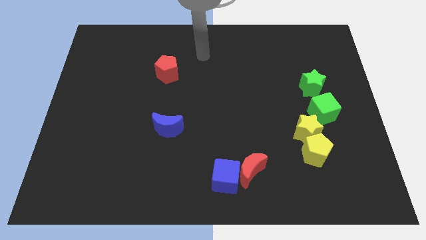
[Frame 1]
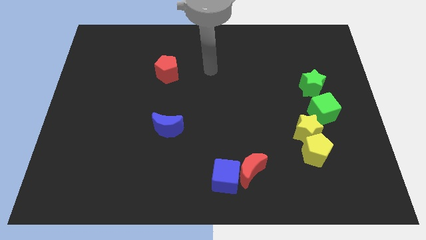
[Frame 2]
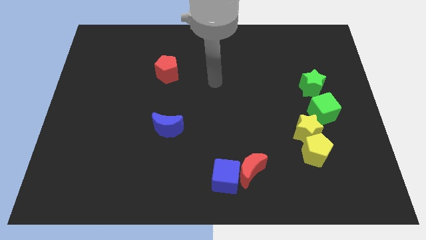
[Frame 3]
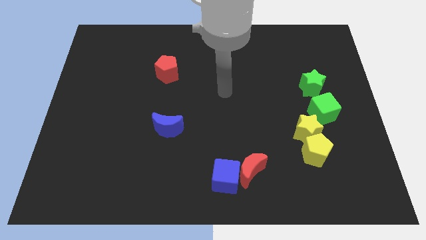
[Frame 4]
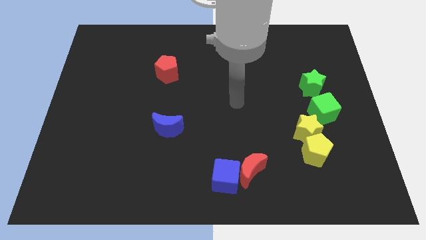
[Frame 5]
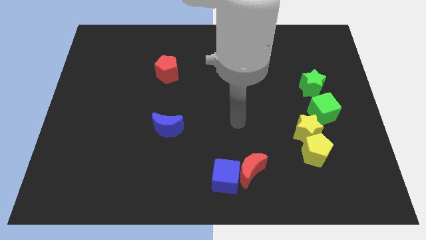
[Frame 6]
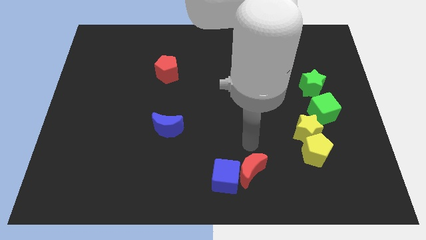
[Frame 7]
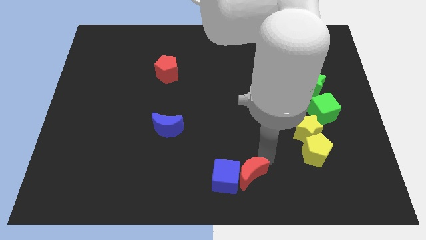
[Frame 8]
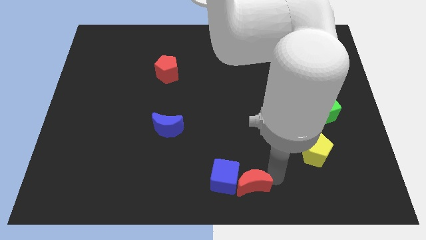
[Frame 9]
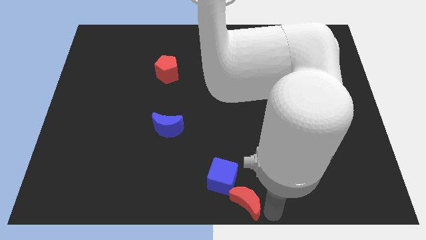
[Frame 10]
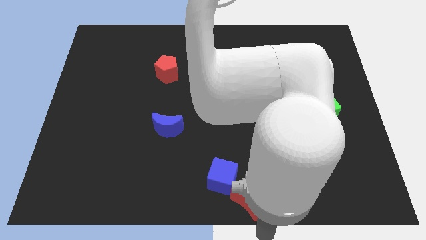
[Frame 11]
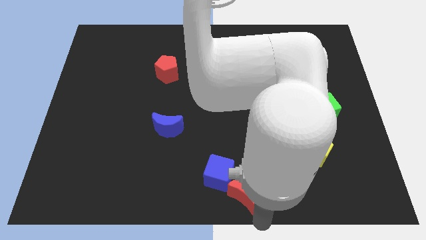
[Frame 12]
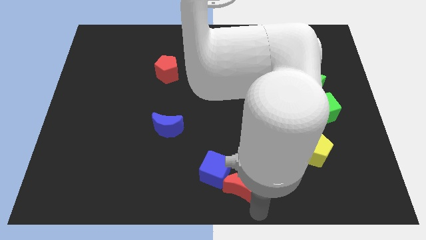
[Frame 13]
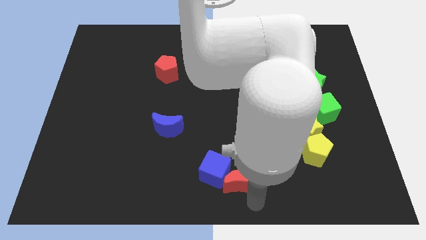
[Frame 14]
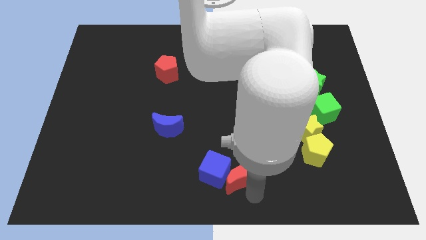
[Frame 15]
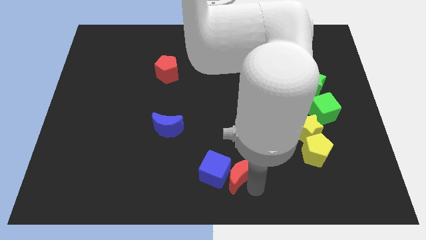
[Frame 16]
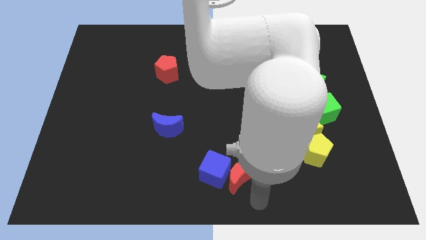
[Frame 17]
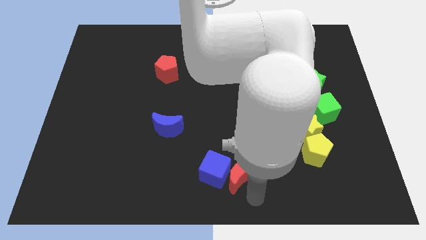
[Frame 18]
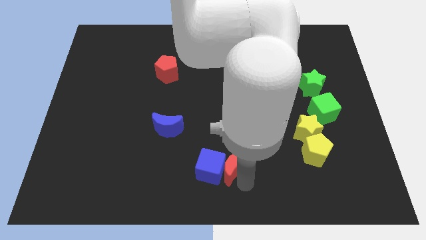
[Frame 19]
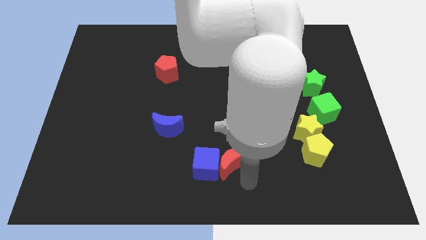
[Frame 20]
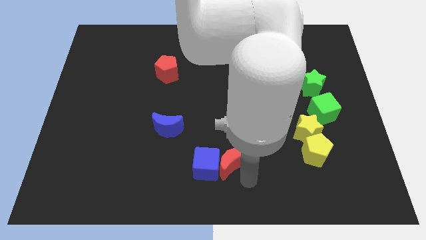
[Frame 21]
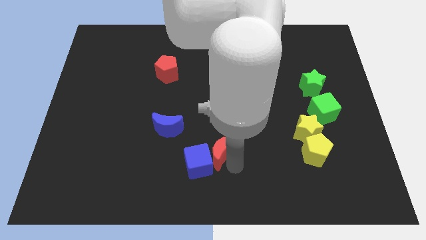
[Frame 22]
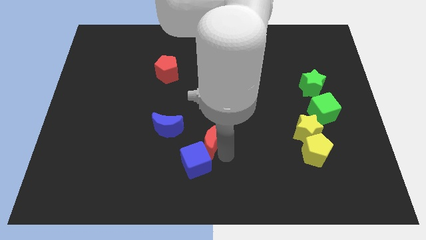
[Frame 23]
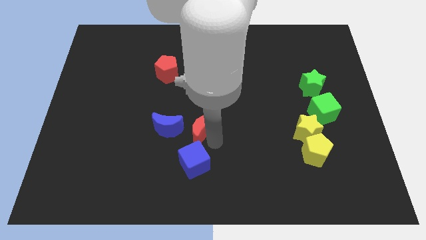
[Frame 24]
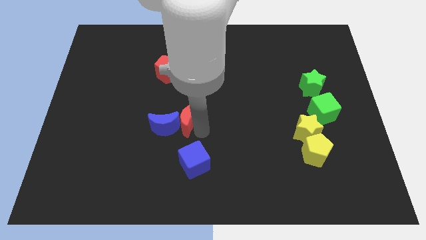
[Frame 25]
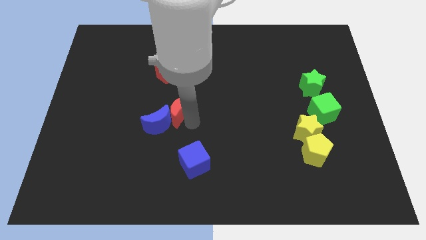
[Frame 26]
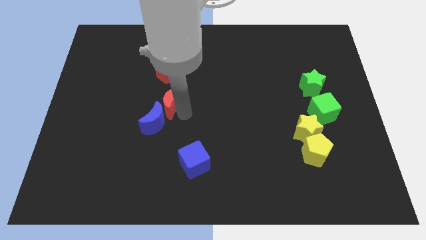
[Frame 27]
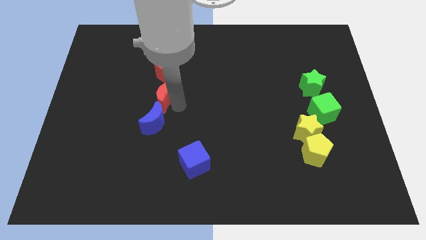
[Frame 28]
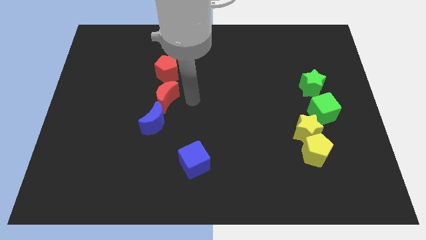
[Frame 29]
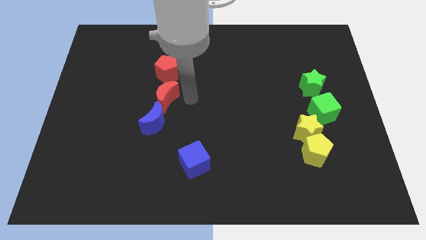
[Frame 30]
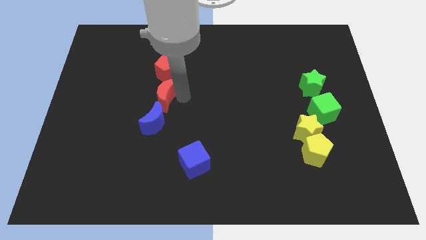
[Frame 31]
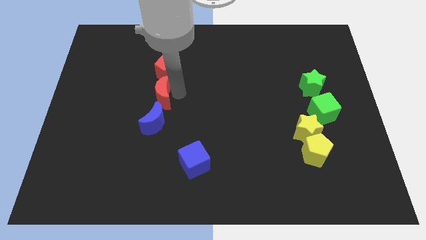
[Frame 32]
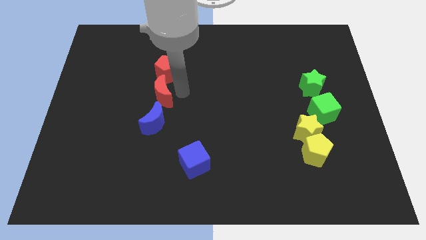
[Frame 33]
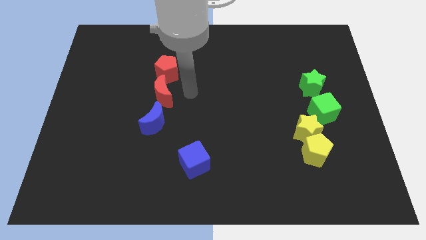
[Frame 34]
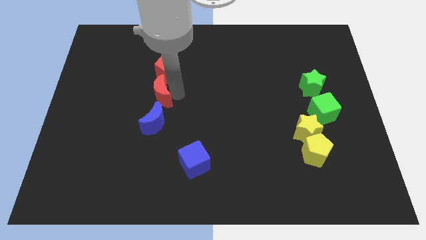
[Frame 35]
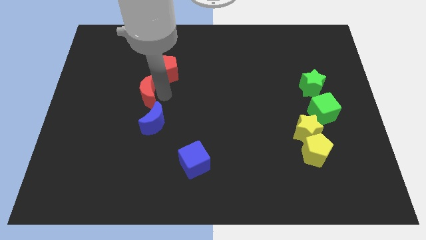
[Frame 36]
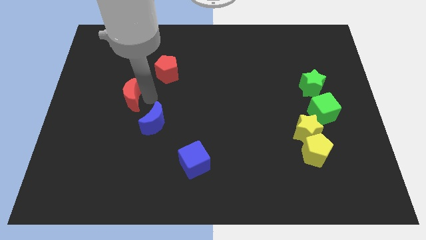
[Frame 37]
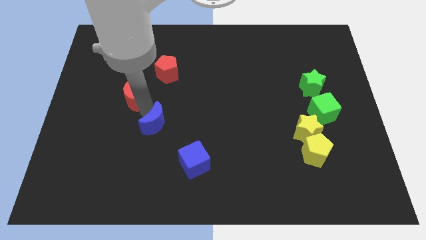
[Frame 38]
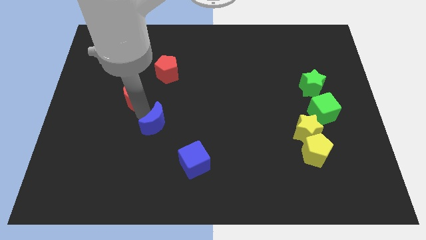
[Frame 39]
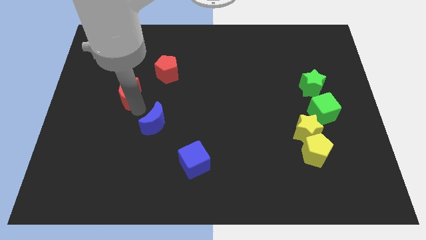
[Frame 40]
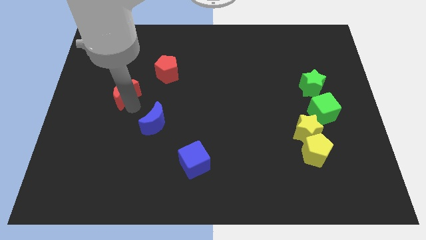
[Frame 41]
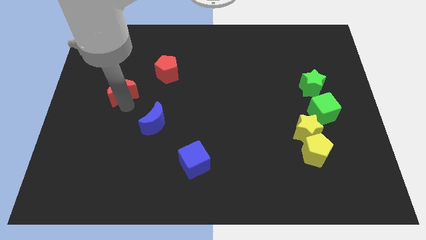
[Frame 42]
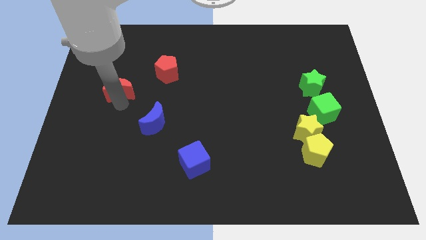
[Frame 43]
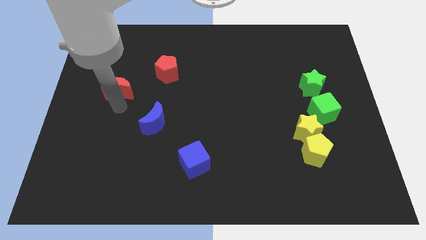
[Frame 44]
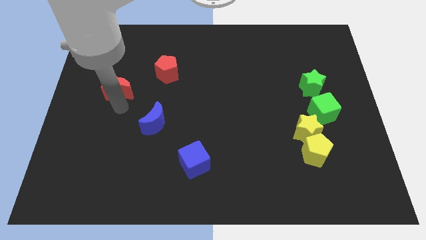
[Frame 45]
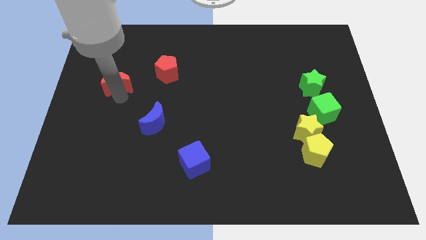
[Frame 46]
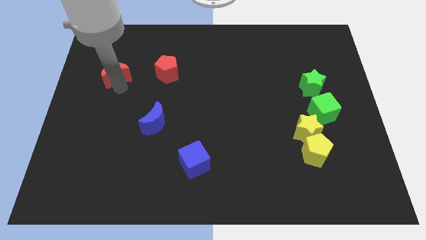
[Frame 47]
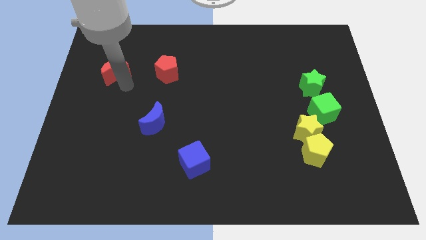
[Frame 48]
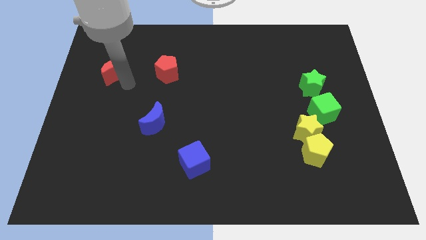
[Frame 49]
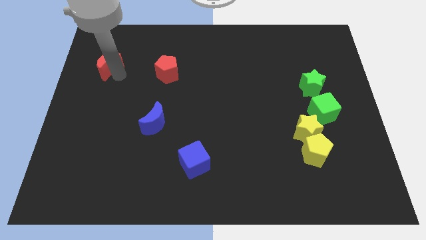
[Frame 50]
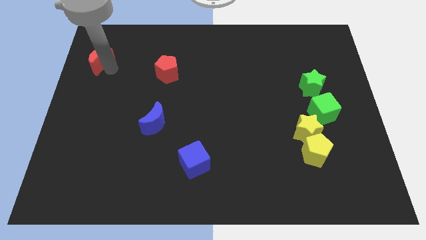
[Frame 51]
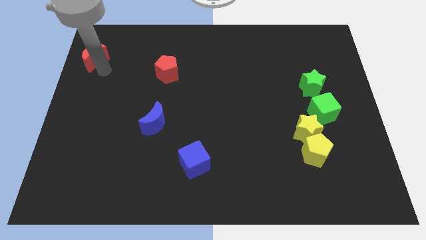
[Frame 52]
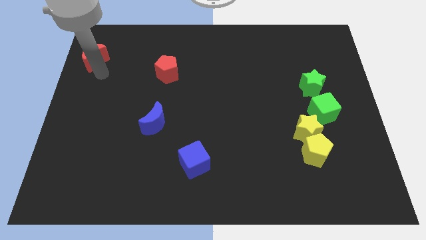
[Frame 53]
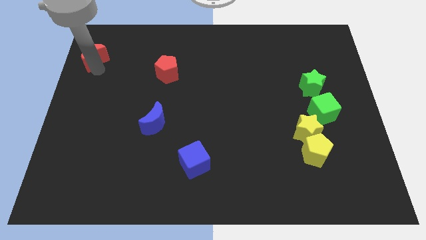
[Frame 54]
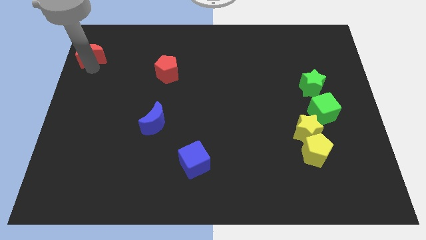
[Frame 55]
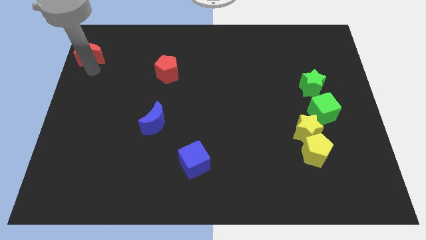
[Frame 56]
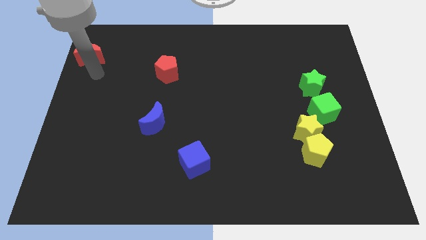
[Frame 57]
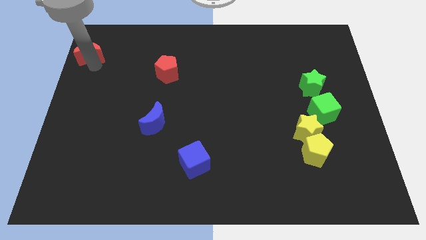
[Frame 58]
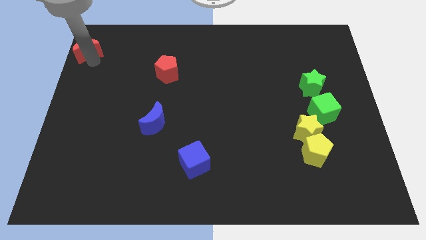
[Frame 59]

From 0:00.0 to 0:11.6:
move the red moon to the top left of the board
